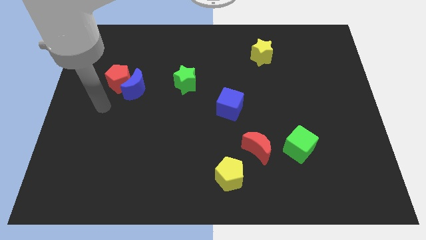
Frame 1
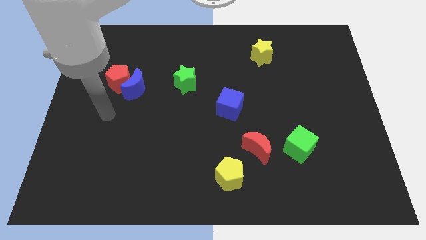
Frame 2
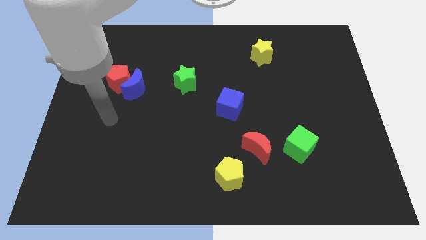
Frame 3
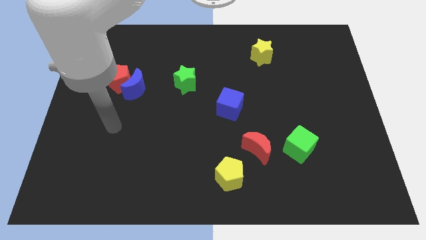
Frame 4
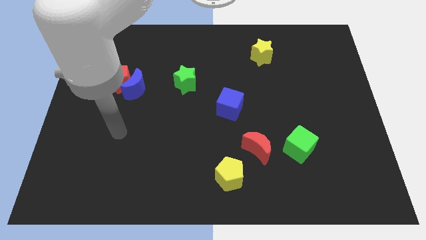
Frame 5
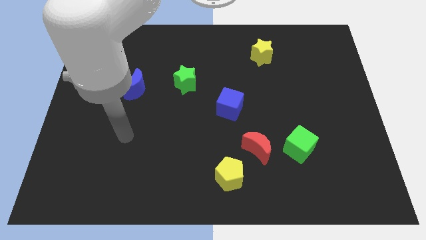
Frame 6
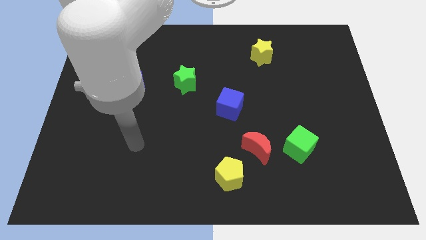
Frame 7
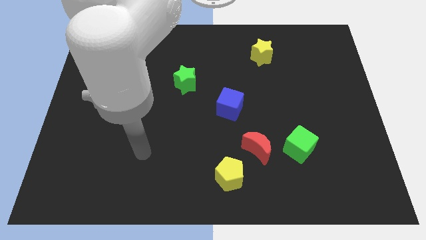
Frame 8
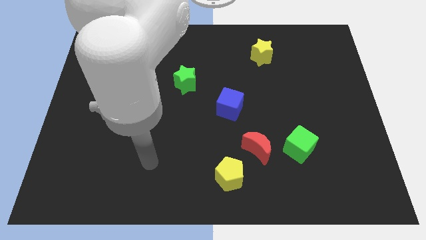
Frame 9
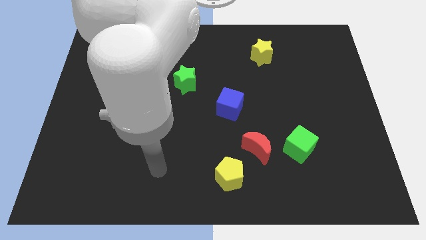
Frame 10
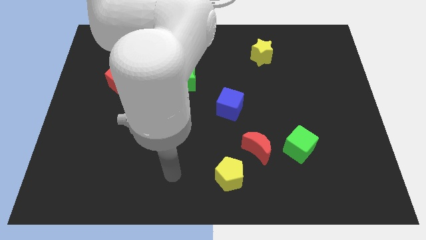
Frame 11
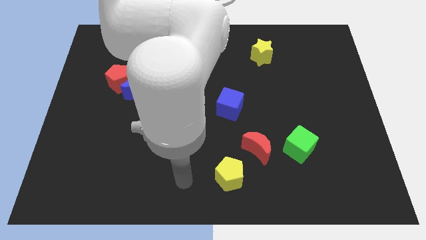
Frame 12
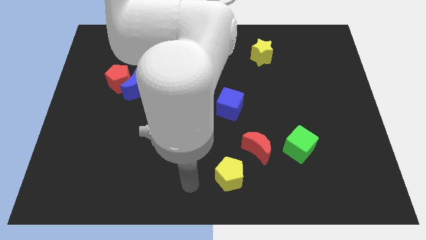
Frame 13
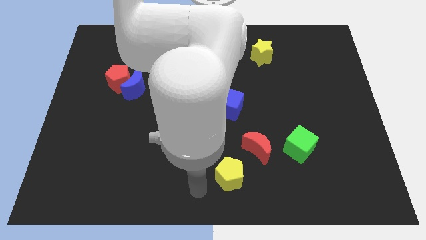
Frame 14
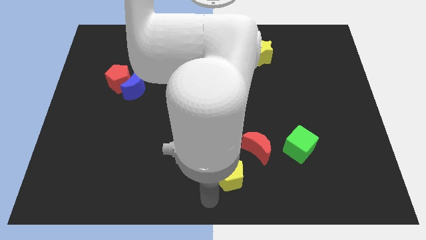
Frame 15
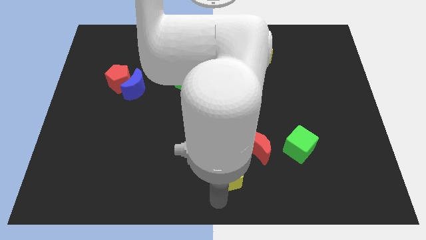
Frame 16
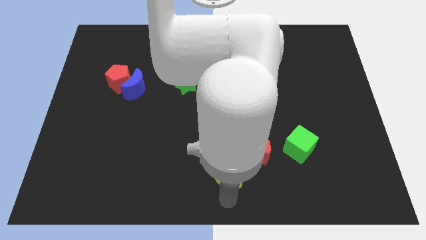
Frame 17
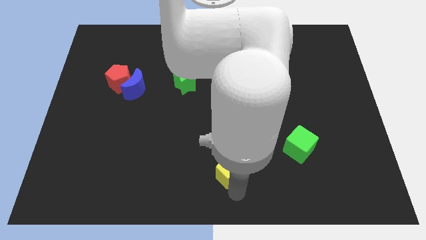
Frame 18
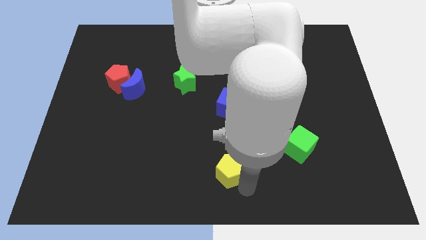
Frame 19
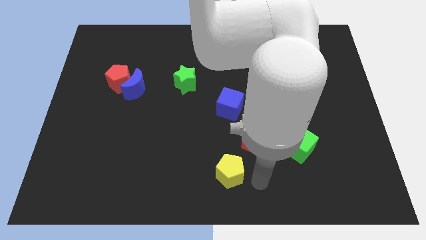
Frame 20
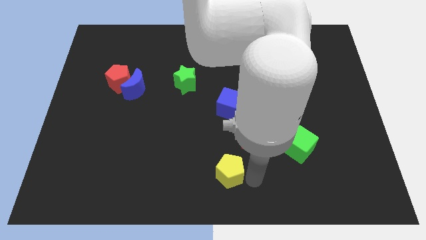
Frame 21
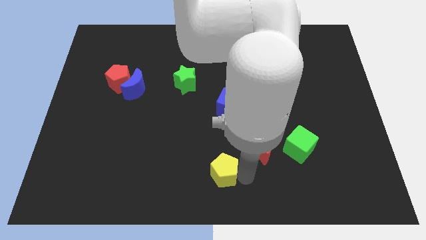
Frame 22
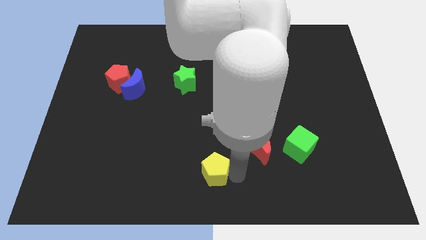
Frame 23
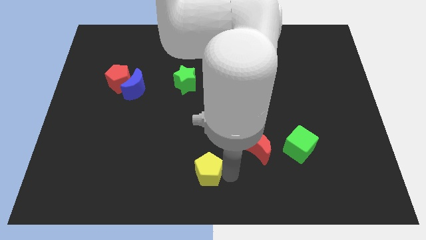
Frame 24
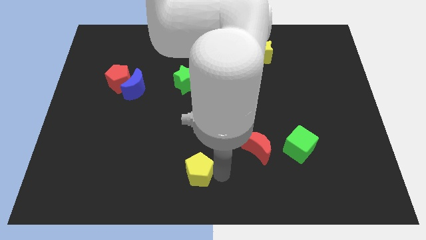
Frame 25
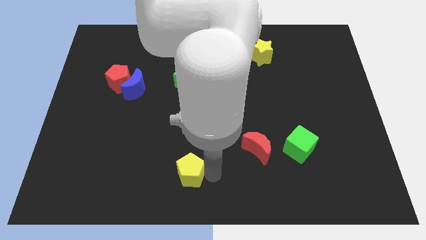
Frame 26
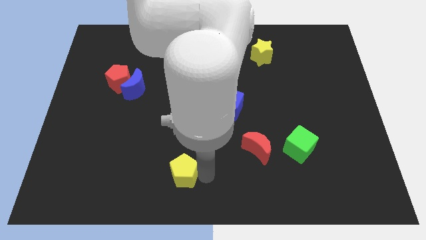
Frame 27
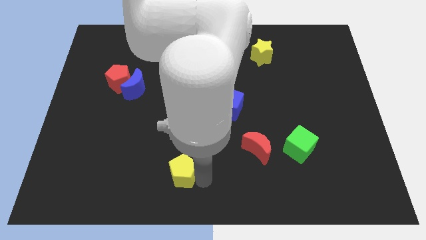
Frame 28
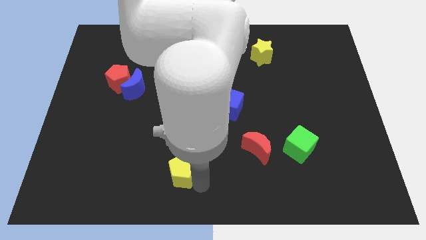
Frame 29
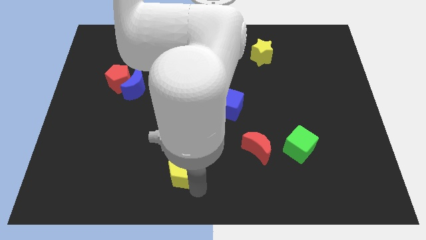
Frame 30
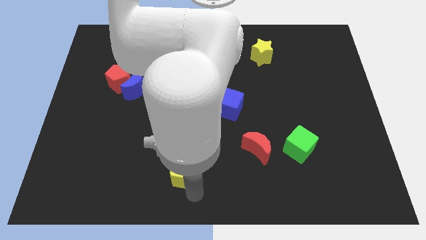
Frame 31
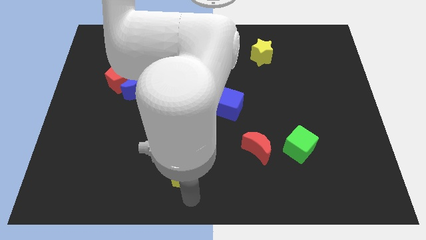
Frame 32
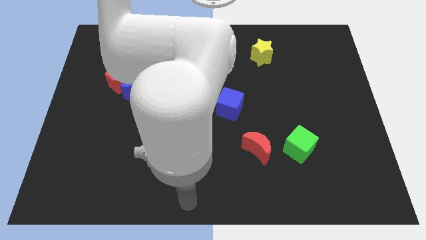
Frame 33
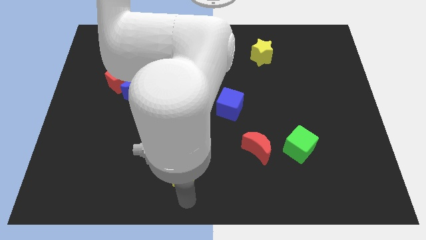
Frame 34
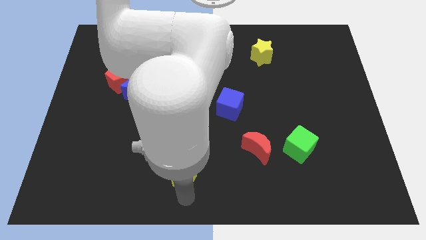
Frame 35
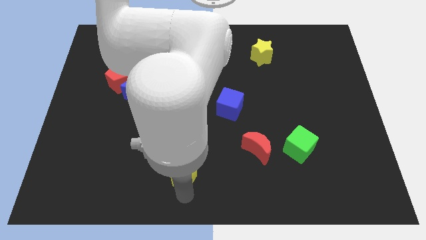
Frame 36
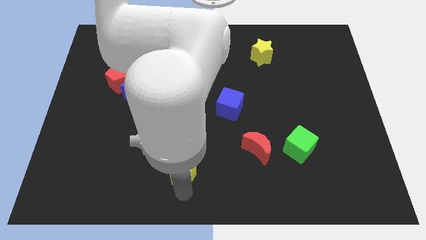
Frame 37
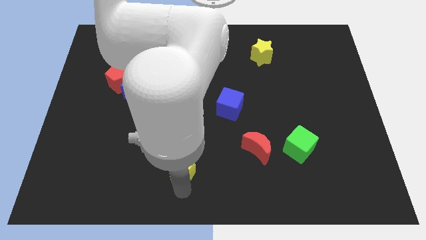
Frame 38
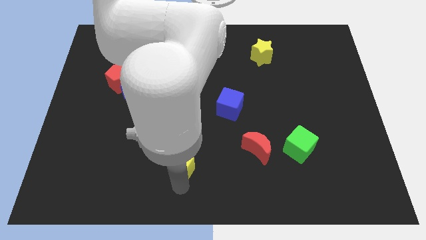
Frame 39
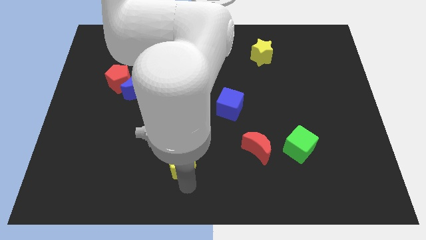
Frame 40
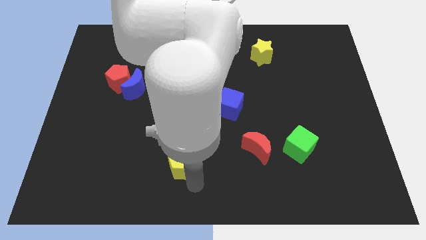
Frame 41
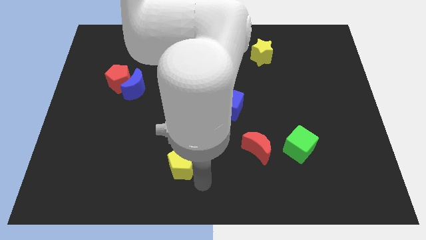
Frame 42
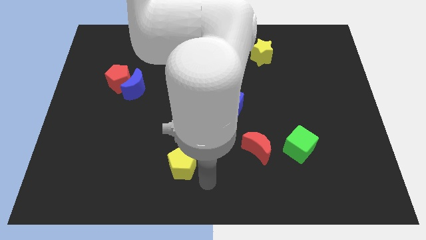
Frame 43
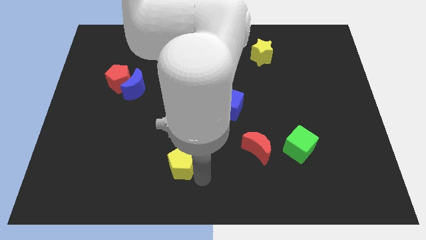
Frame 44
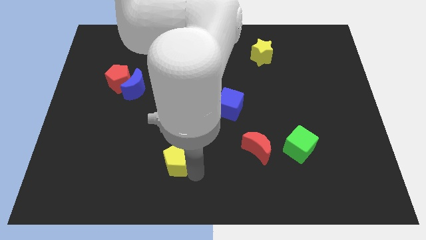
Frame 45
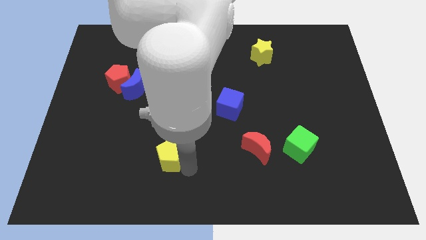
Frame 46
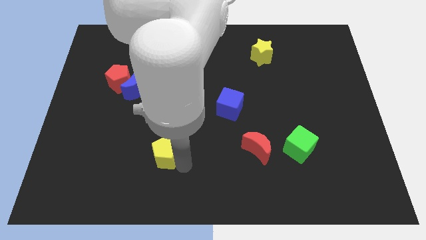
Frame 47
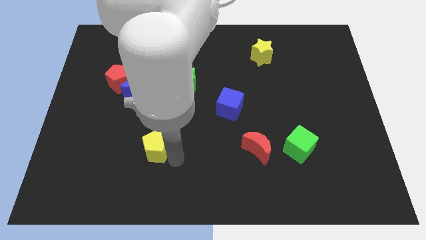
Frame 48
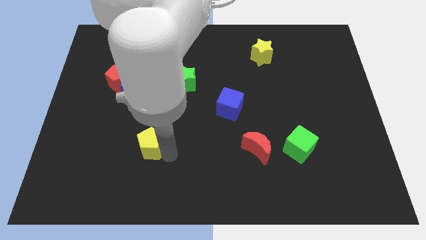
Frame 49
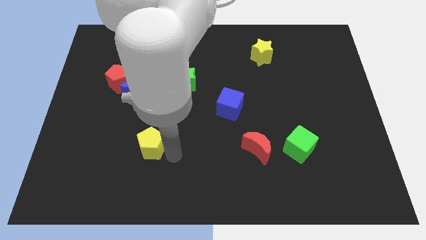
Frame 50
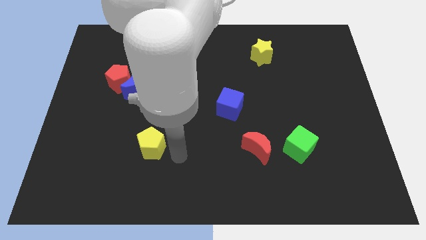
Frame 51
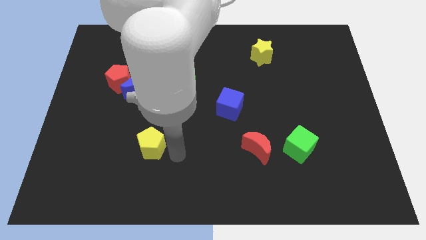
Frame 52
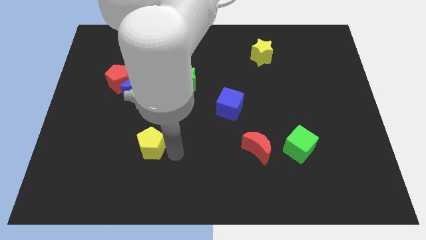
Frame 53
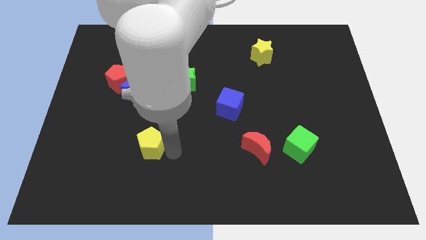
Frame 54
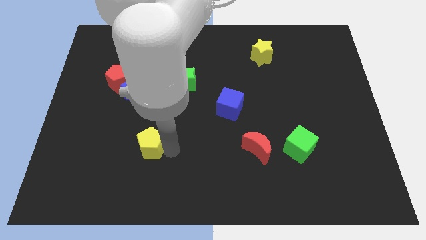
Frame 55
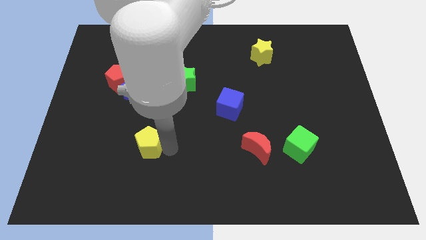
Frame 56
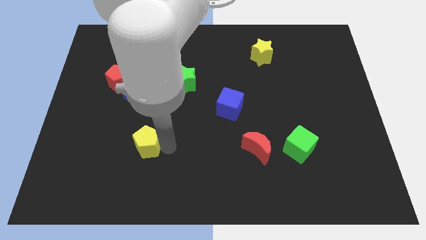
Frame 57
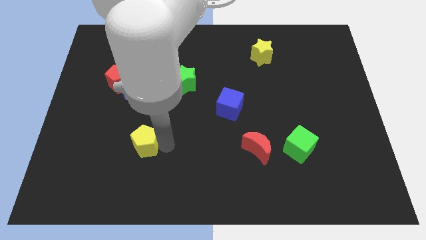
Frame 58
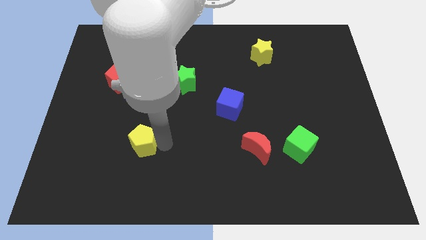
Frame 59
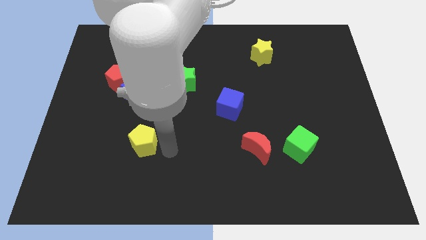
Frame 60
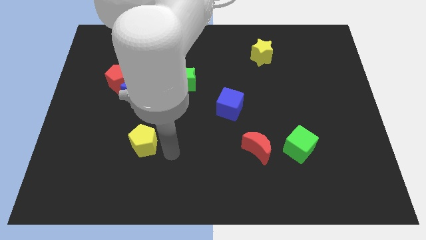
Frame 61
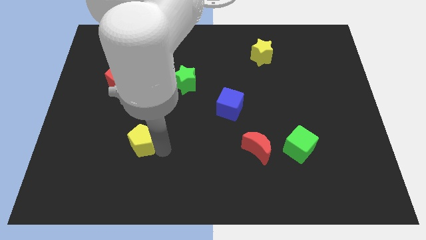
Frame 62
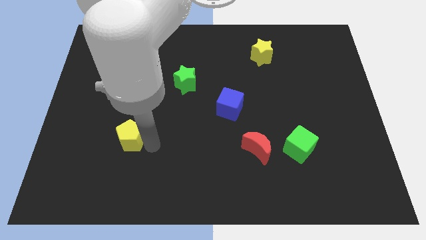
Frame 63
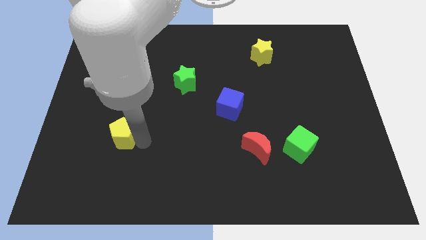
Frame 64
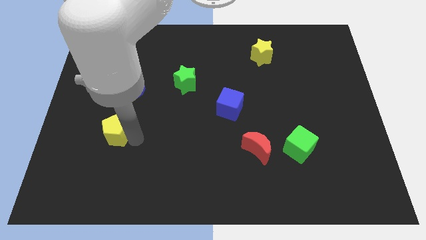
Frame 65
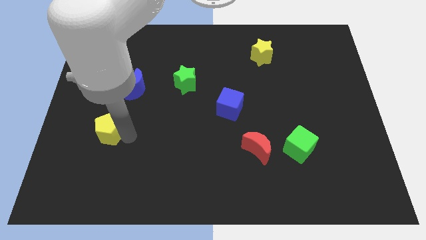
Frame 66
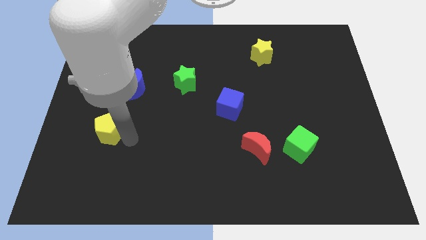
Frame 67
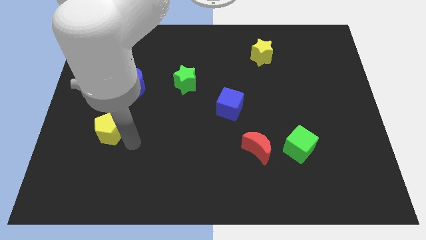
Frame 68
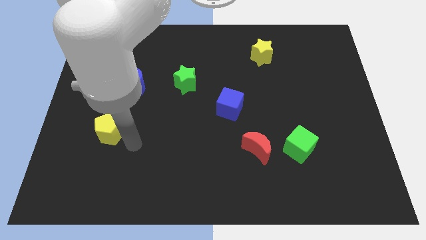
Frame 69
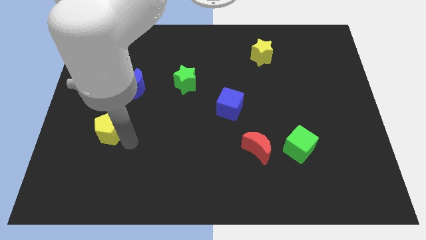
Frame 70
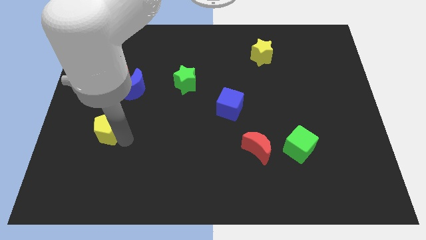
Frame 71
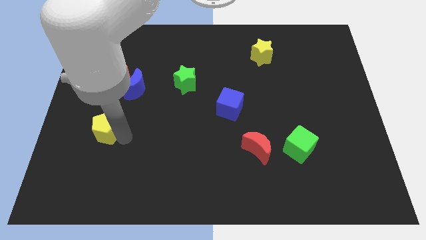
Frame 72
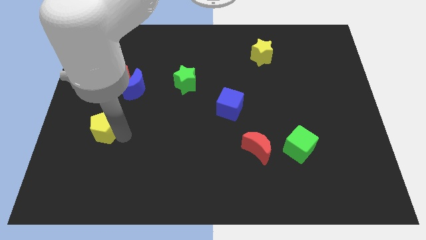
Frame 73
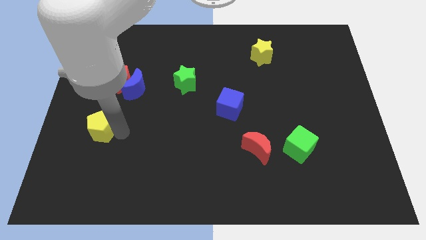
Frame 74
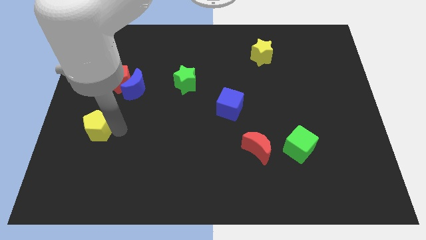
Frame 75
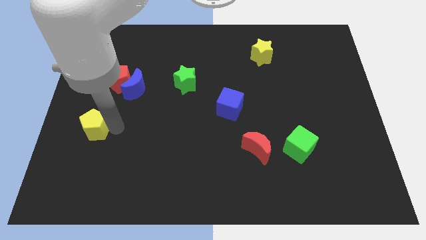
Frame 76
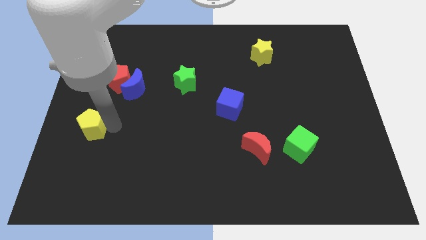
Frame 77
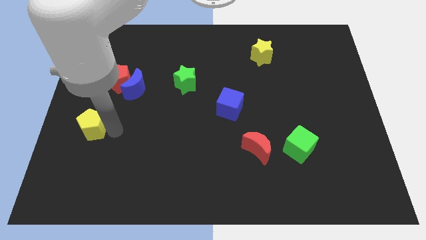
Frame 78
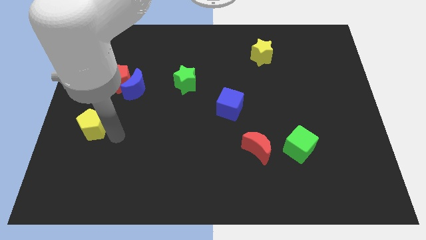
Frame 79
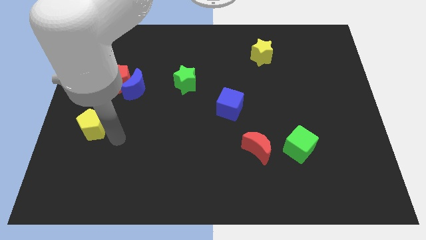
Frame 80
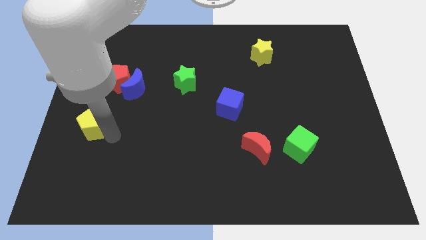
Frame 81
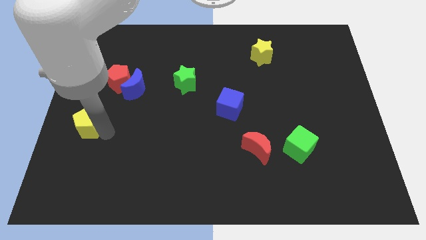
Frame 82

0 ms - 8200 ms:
slide the yellow pentagon to the left side of the board
